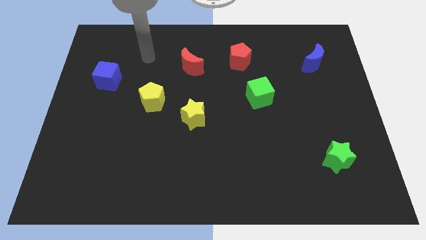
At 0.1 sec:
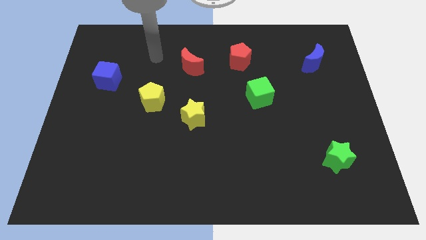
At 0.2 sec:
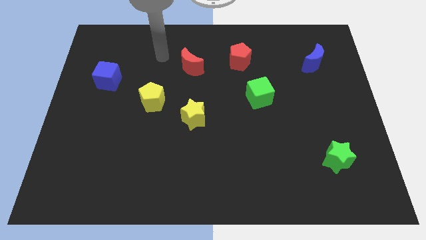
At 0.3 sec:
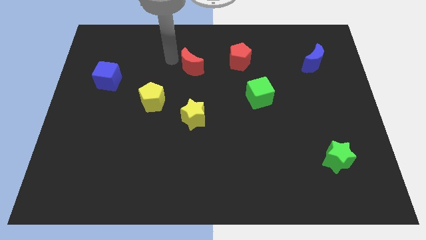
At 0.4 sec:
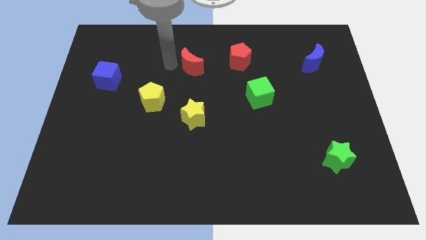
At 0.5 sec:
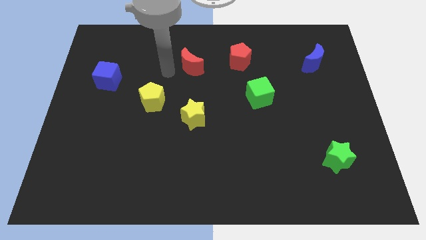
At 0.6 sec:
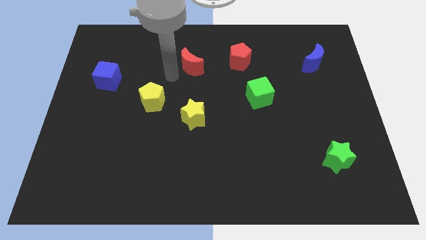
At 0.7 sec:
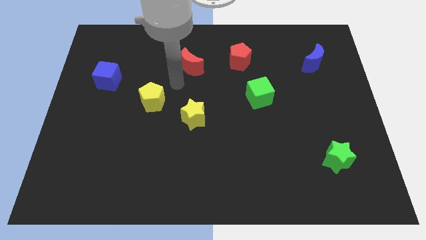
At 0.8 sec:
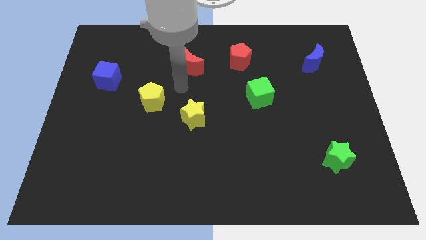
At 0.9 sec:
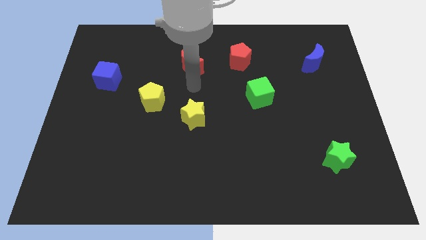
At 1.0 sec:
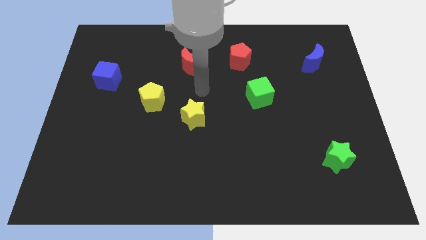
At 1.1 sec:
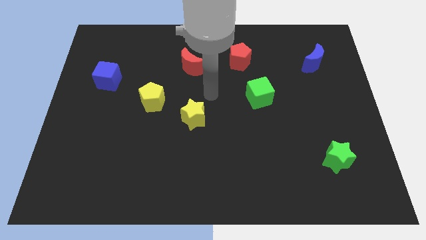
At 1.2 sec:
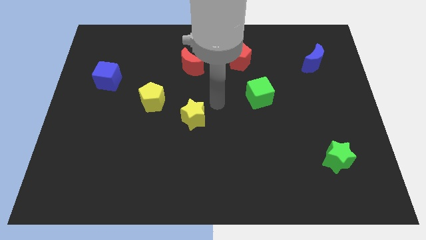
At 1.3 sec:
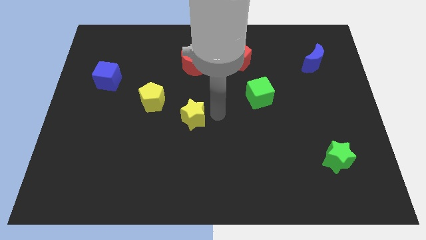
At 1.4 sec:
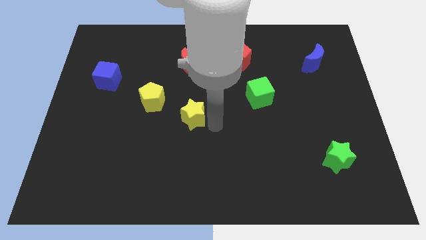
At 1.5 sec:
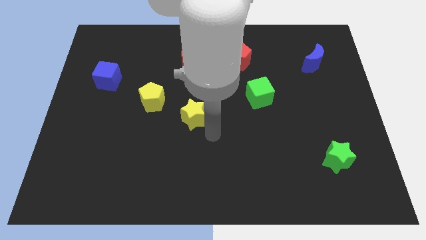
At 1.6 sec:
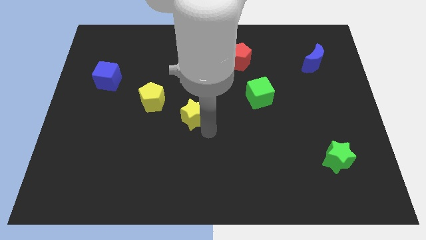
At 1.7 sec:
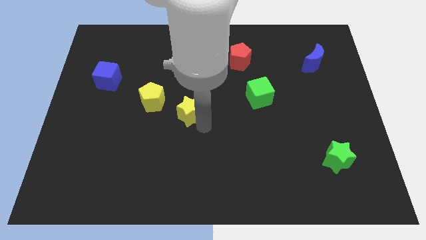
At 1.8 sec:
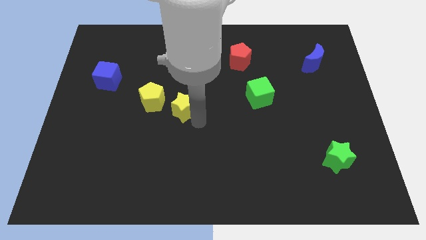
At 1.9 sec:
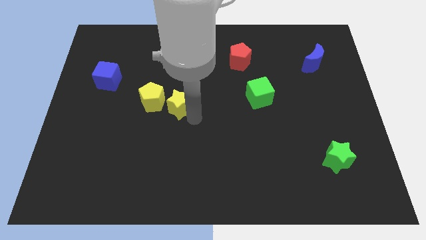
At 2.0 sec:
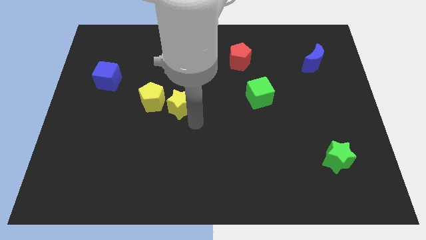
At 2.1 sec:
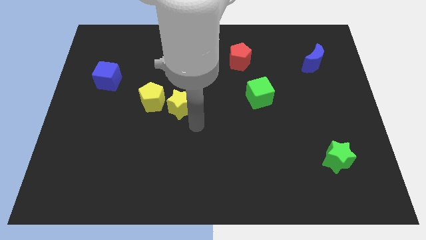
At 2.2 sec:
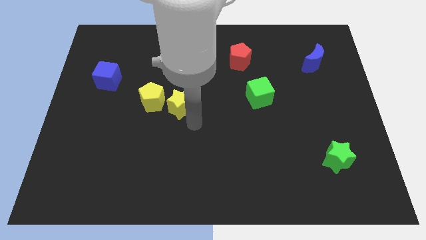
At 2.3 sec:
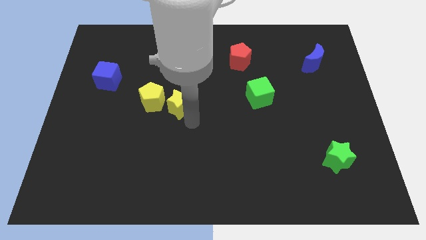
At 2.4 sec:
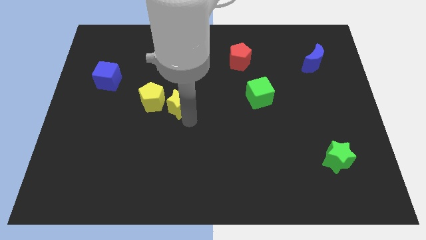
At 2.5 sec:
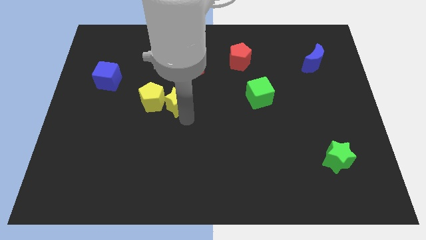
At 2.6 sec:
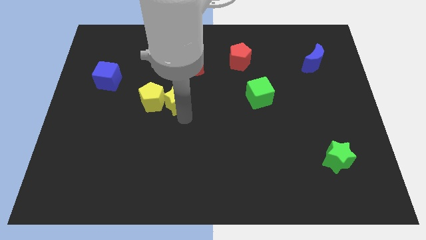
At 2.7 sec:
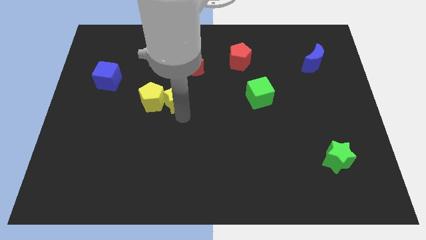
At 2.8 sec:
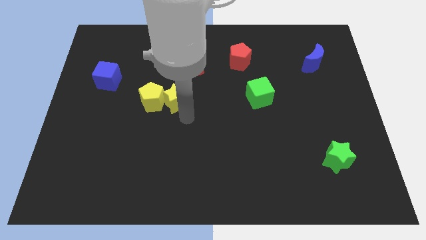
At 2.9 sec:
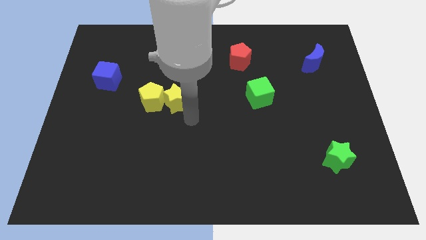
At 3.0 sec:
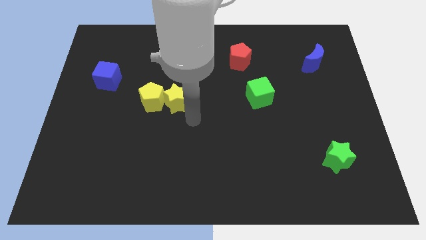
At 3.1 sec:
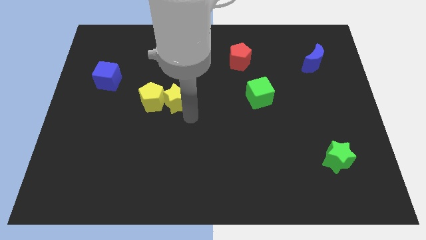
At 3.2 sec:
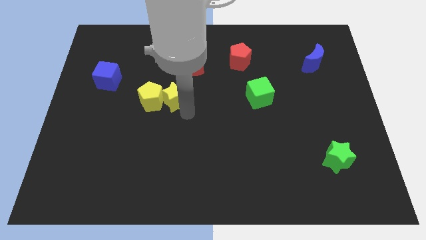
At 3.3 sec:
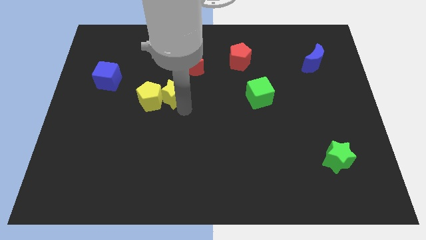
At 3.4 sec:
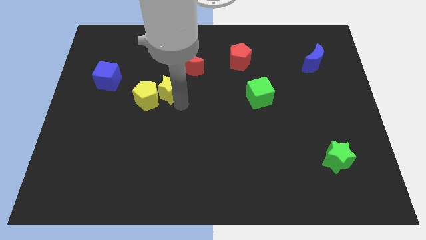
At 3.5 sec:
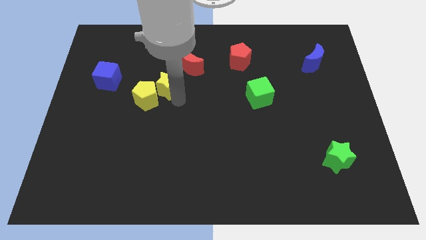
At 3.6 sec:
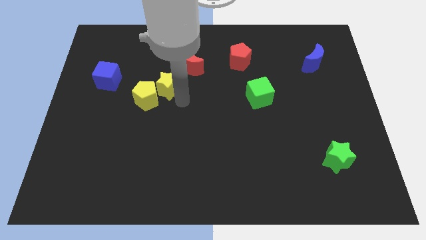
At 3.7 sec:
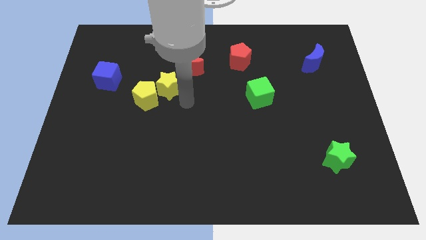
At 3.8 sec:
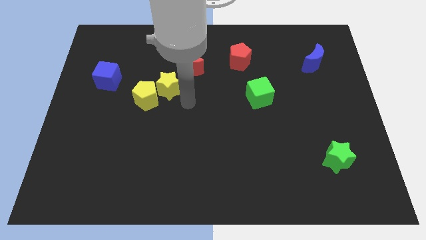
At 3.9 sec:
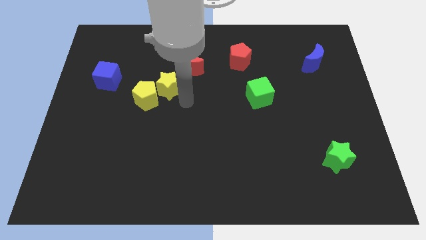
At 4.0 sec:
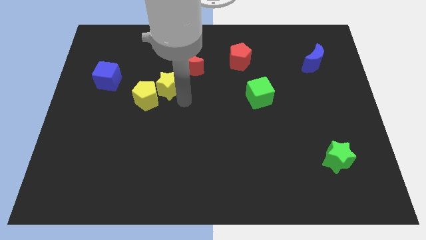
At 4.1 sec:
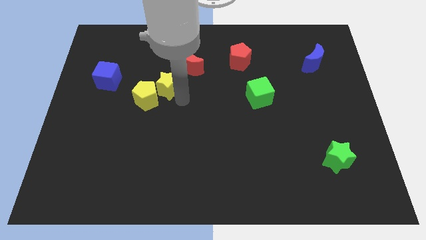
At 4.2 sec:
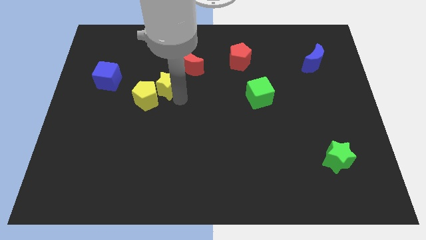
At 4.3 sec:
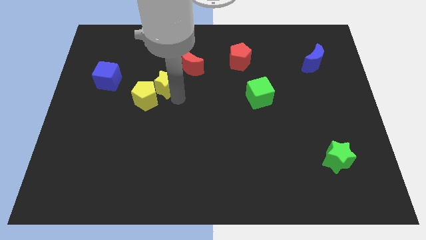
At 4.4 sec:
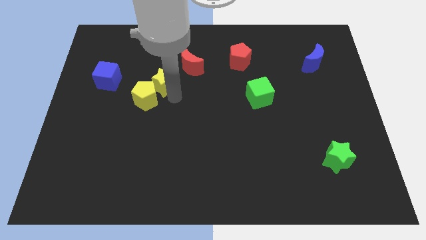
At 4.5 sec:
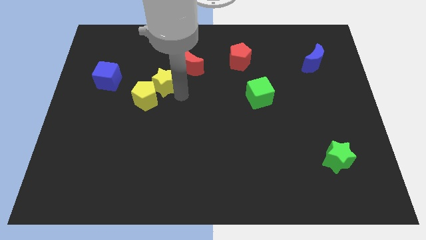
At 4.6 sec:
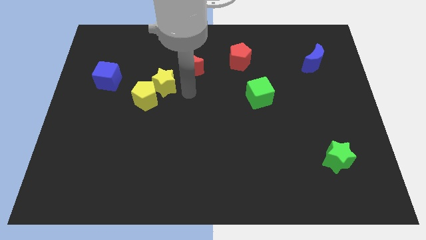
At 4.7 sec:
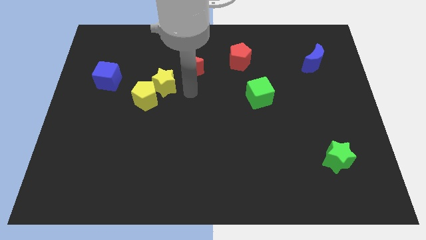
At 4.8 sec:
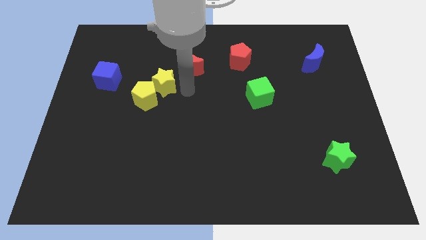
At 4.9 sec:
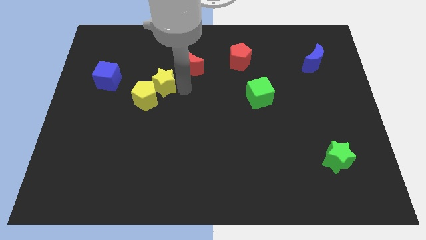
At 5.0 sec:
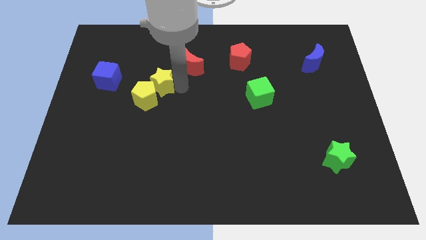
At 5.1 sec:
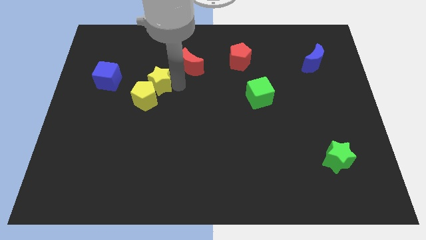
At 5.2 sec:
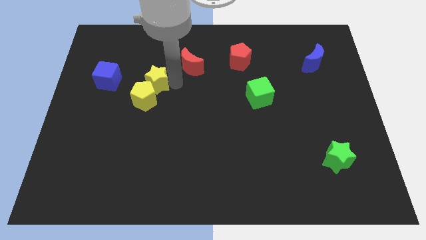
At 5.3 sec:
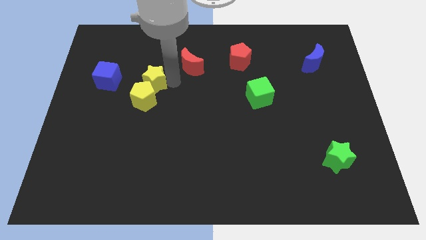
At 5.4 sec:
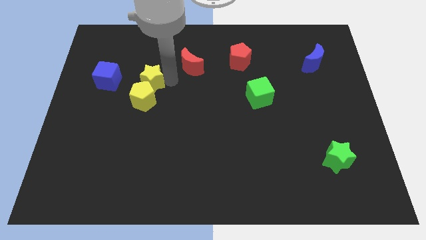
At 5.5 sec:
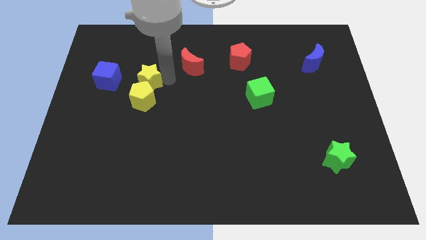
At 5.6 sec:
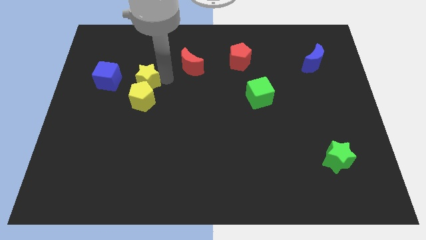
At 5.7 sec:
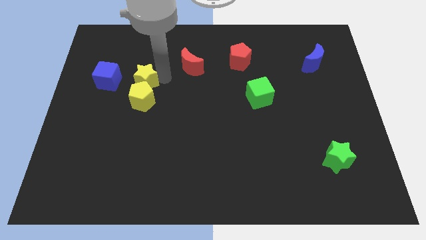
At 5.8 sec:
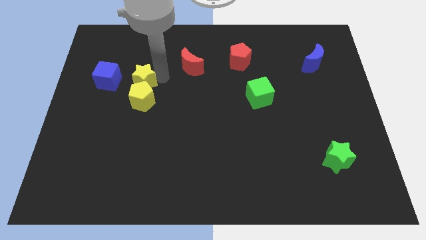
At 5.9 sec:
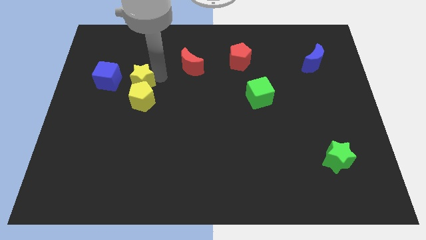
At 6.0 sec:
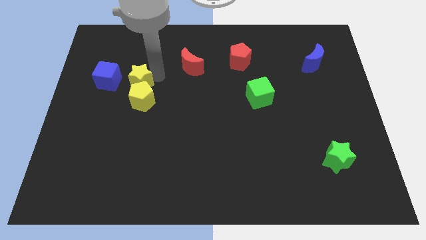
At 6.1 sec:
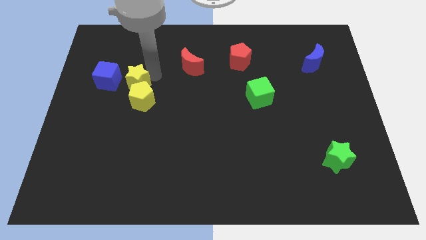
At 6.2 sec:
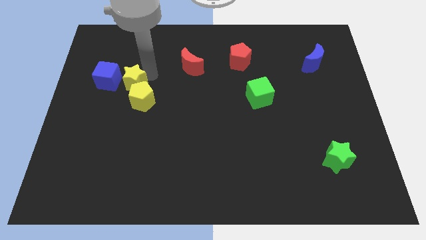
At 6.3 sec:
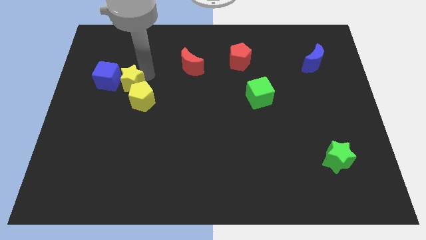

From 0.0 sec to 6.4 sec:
push the yellow star towards the blue cube
